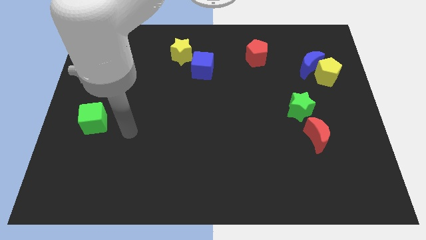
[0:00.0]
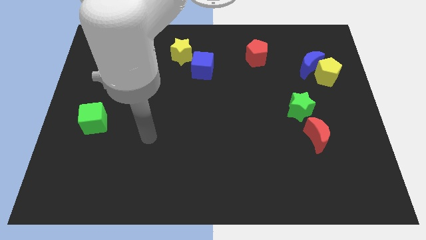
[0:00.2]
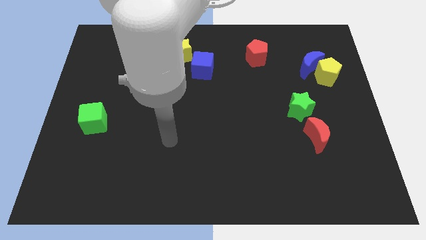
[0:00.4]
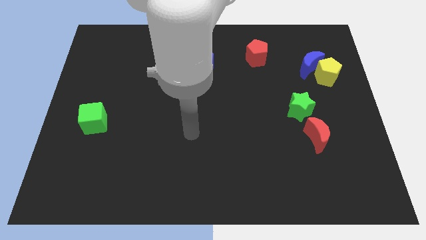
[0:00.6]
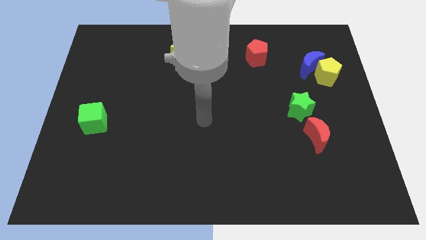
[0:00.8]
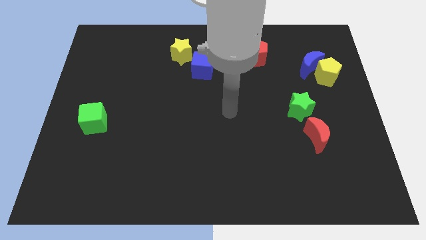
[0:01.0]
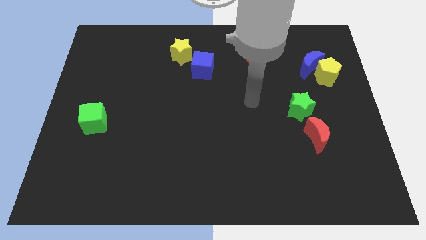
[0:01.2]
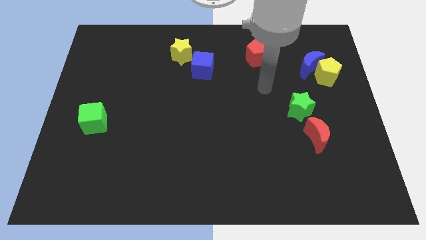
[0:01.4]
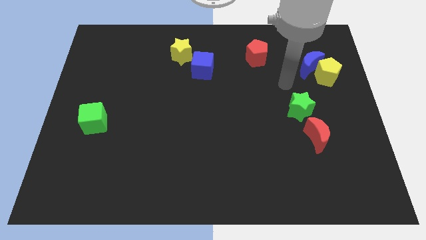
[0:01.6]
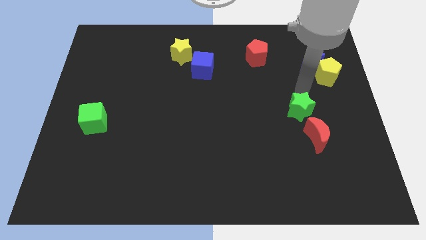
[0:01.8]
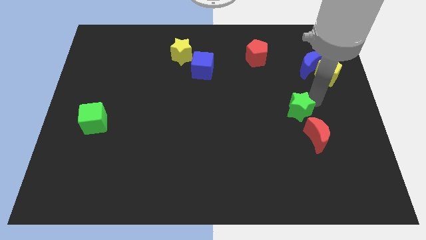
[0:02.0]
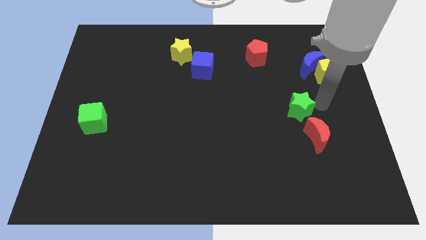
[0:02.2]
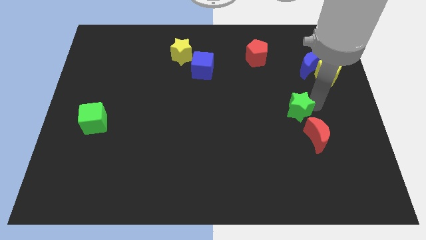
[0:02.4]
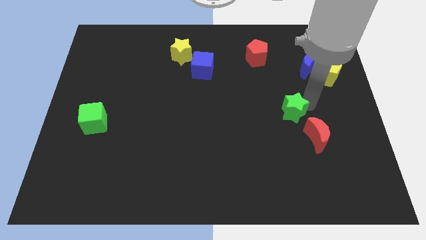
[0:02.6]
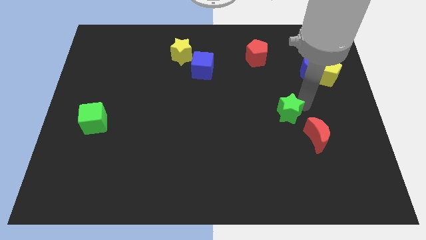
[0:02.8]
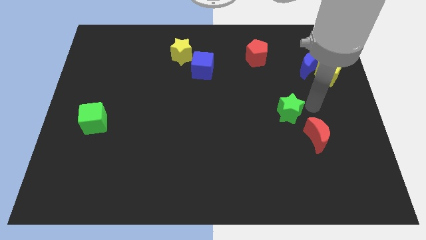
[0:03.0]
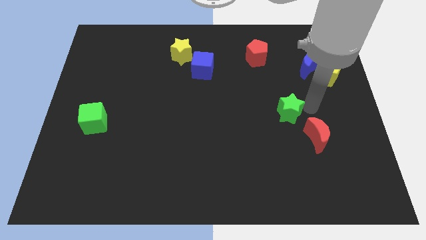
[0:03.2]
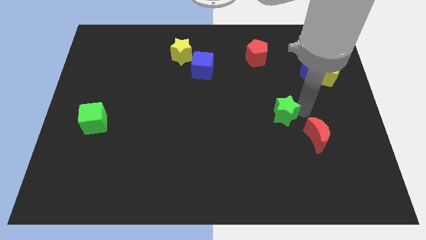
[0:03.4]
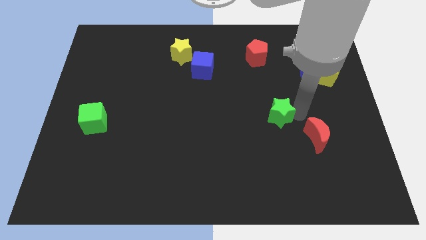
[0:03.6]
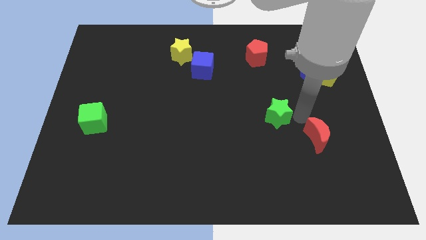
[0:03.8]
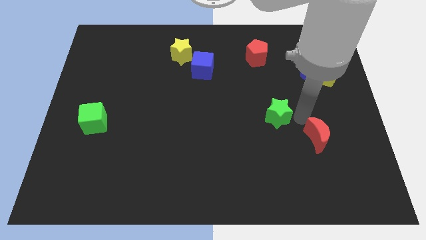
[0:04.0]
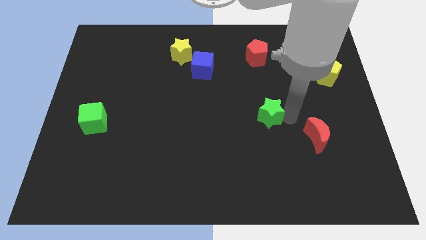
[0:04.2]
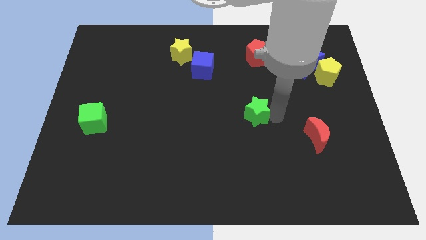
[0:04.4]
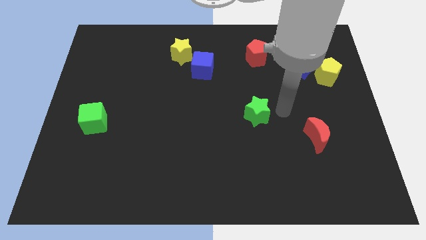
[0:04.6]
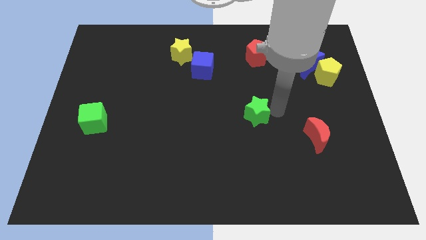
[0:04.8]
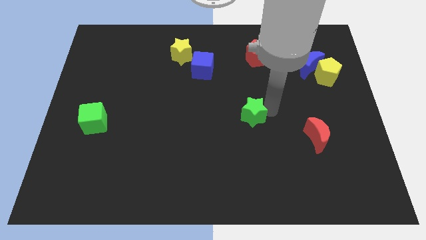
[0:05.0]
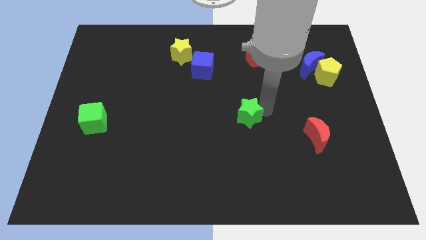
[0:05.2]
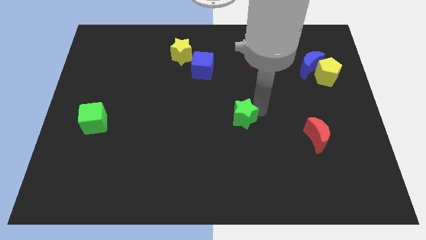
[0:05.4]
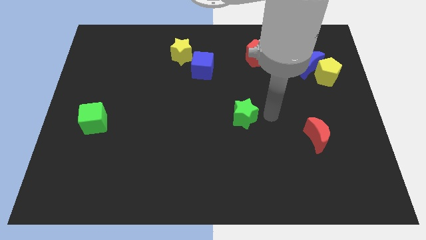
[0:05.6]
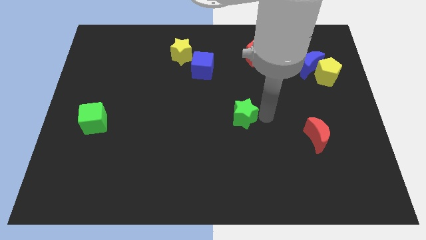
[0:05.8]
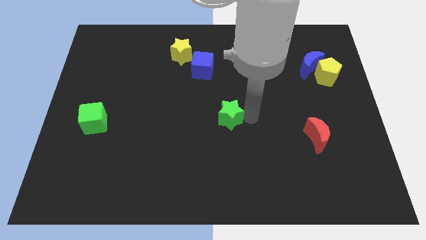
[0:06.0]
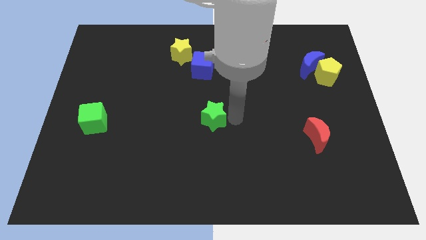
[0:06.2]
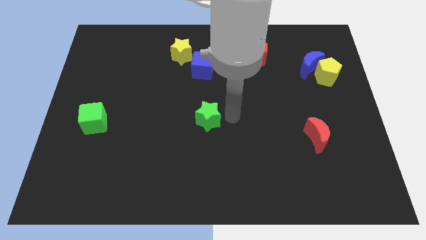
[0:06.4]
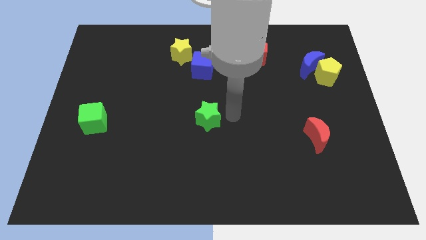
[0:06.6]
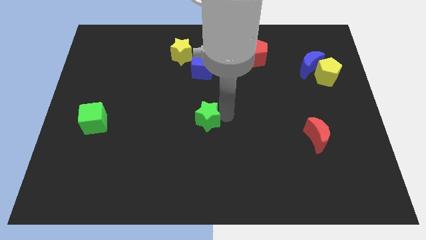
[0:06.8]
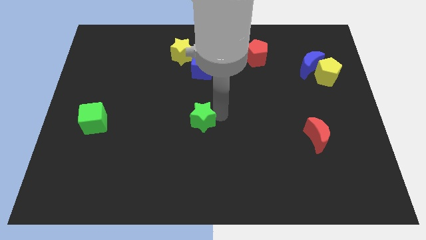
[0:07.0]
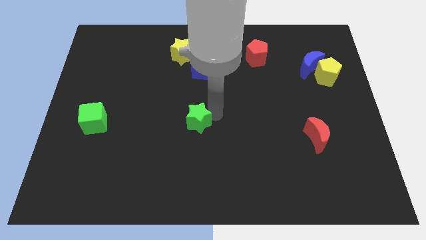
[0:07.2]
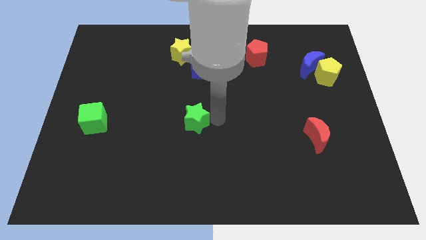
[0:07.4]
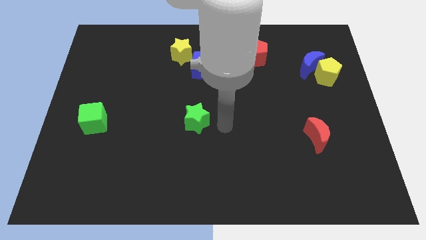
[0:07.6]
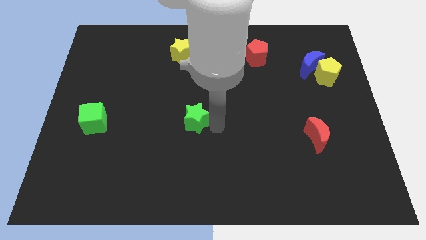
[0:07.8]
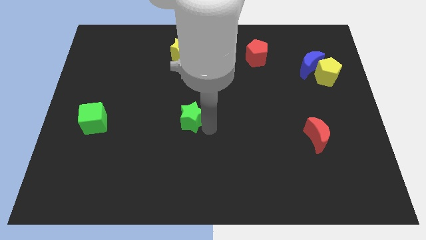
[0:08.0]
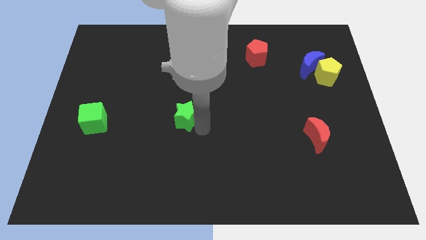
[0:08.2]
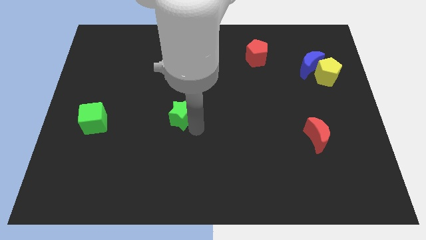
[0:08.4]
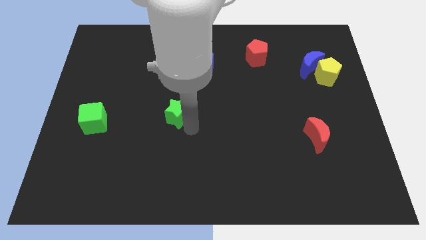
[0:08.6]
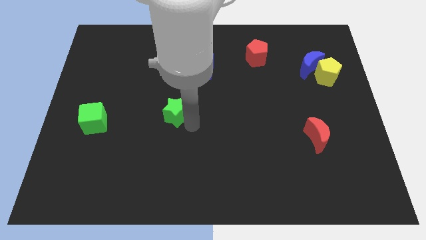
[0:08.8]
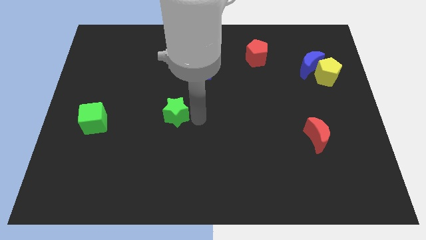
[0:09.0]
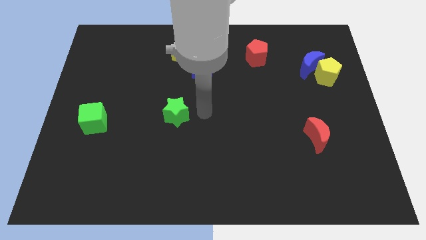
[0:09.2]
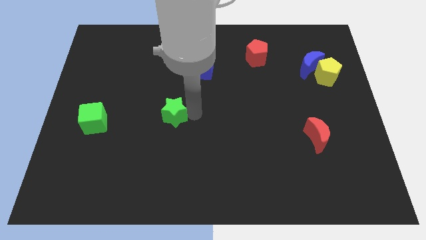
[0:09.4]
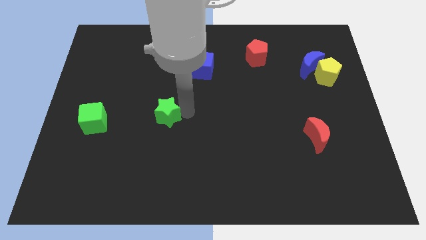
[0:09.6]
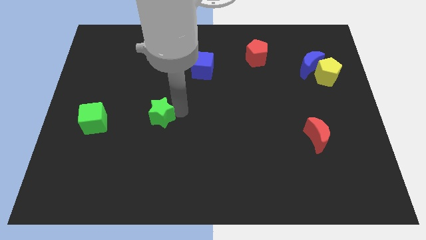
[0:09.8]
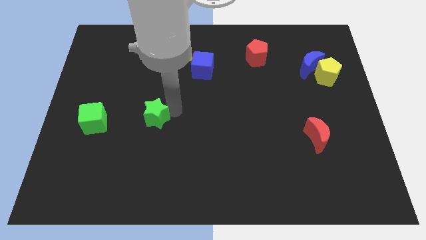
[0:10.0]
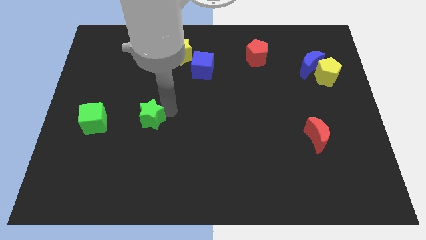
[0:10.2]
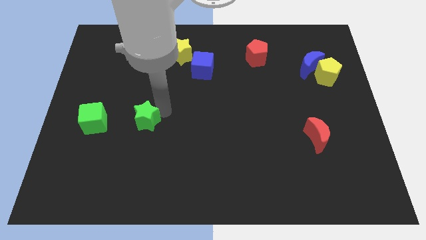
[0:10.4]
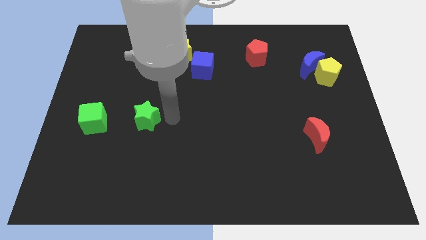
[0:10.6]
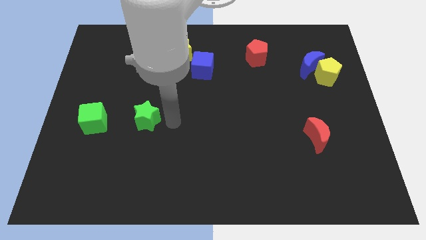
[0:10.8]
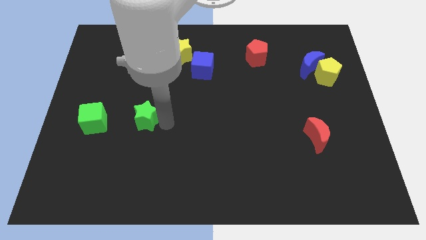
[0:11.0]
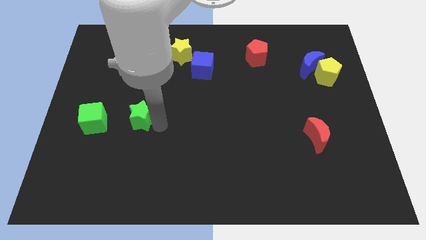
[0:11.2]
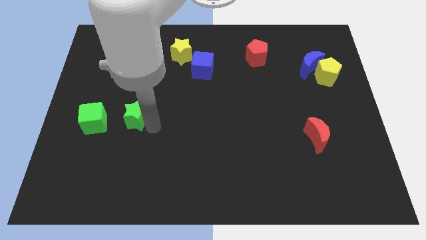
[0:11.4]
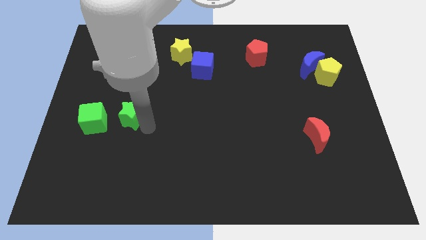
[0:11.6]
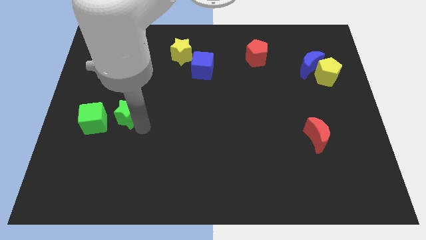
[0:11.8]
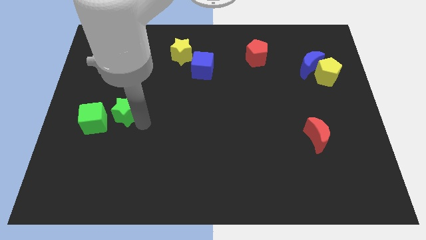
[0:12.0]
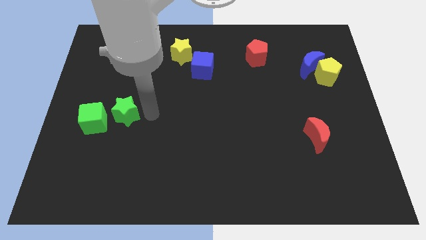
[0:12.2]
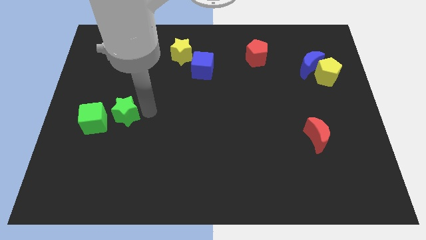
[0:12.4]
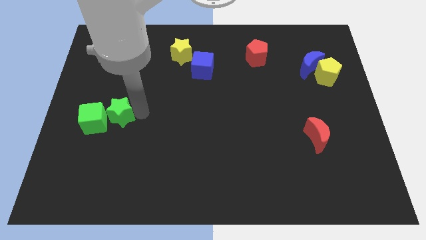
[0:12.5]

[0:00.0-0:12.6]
push the green star to the green cube

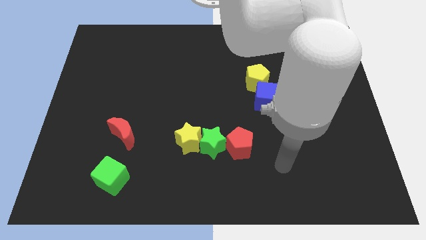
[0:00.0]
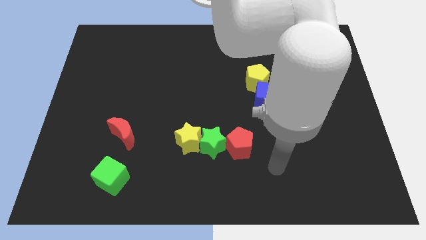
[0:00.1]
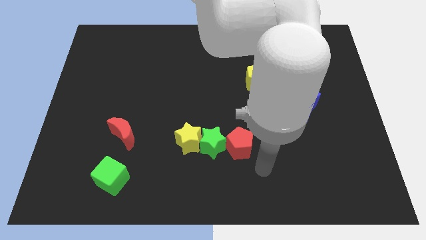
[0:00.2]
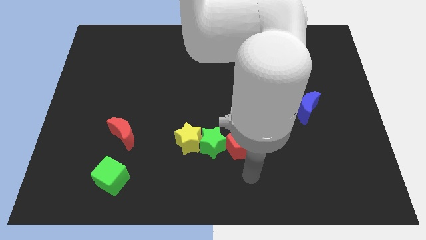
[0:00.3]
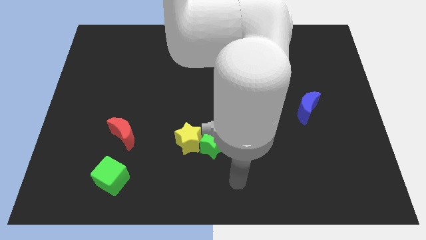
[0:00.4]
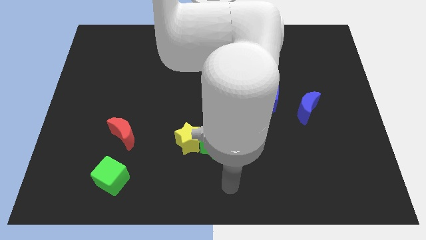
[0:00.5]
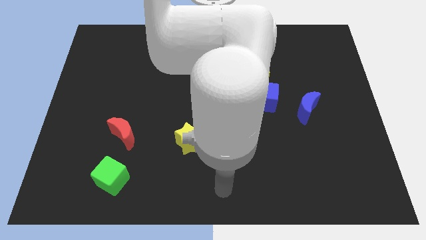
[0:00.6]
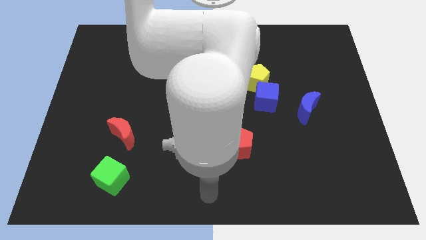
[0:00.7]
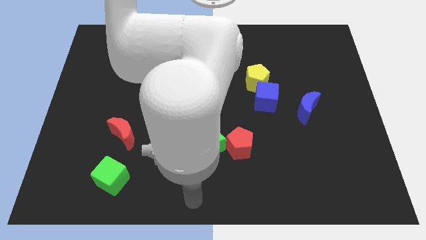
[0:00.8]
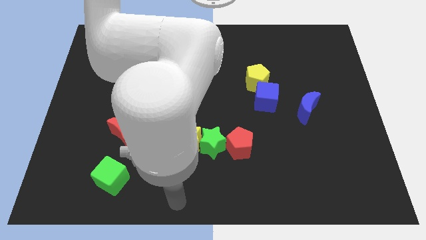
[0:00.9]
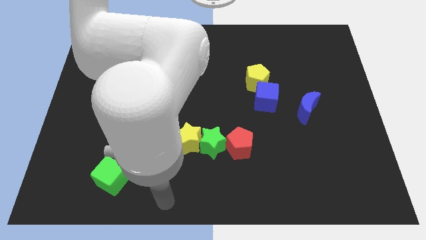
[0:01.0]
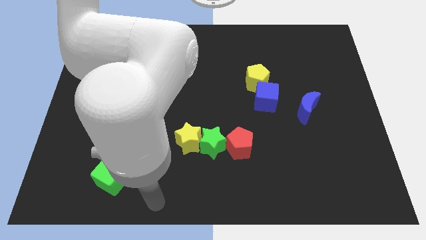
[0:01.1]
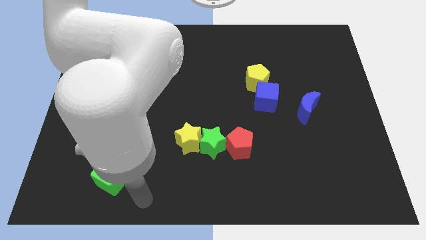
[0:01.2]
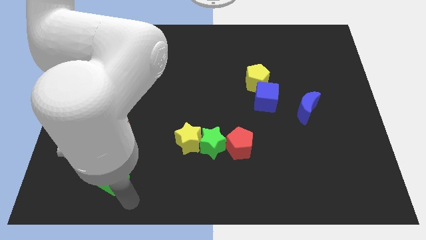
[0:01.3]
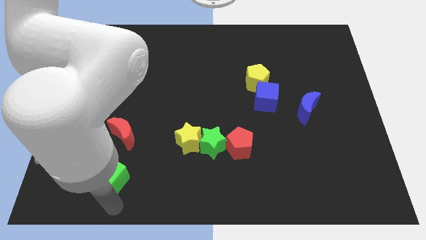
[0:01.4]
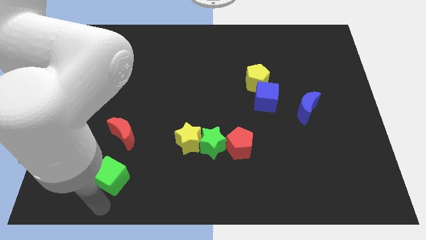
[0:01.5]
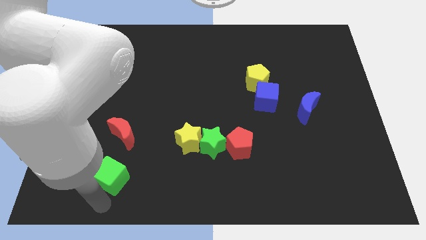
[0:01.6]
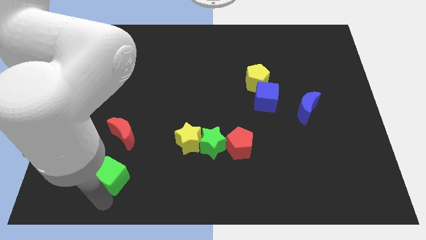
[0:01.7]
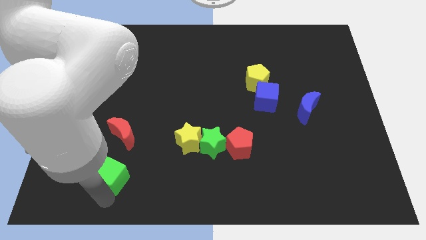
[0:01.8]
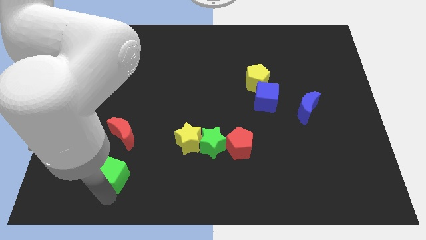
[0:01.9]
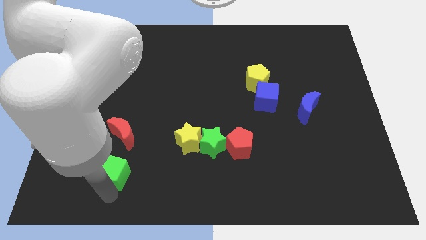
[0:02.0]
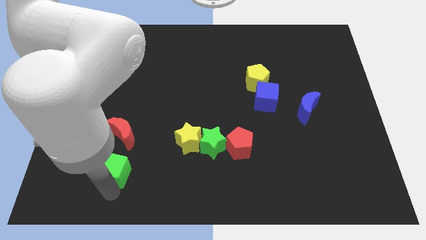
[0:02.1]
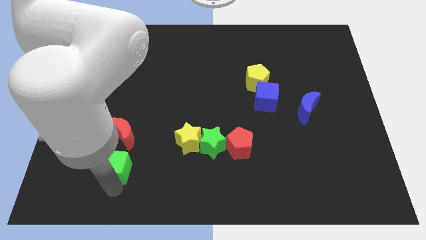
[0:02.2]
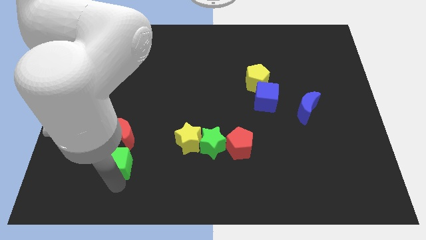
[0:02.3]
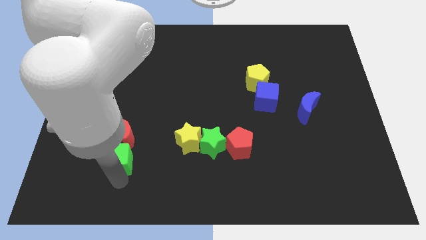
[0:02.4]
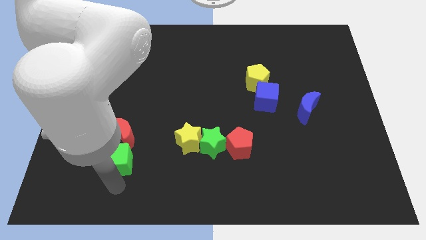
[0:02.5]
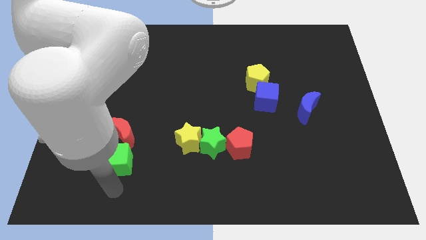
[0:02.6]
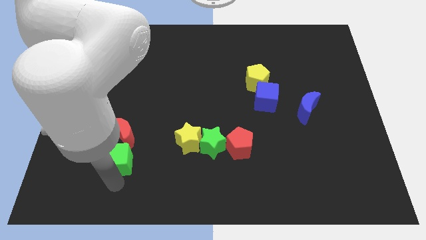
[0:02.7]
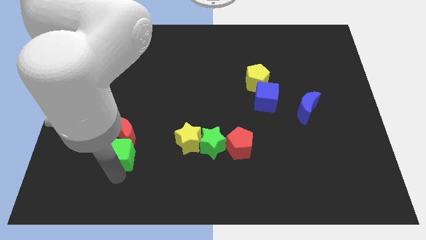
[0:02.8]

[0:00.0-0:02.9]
put the green cube to the red moon
